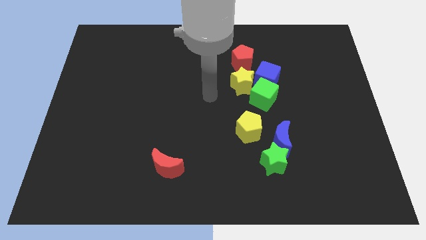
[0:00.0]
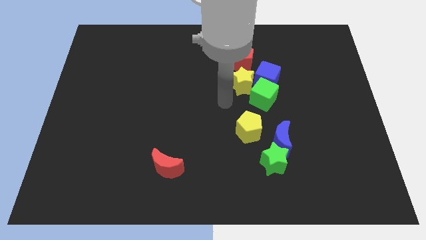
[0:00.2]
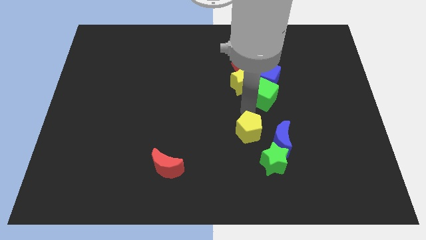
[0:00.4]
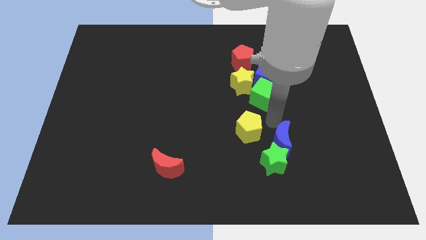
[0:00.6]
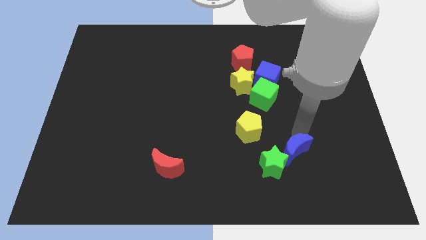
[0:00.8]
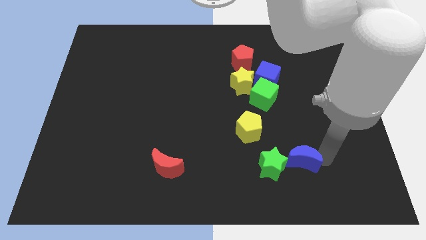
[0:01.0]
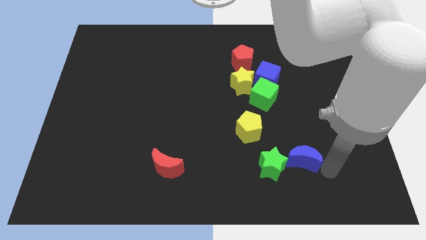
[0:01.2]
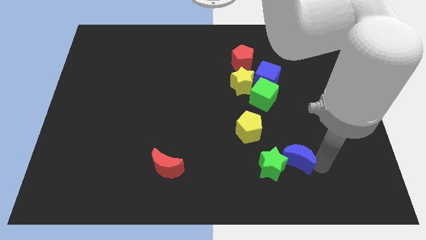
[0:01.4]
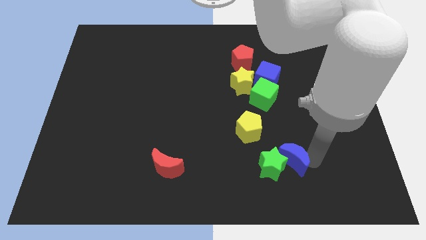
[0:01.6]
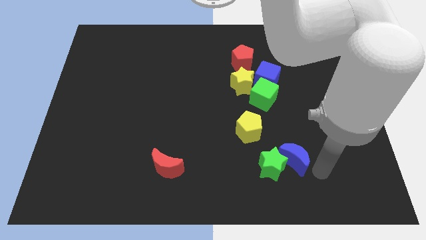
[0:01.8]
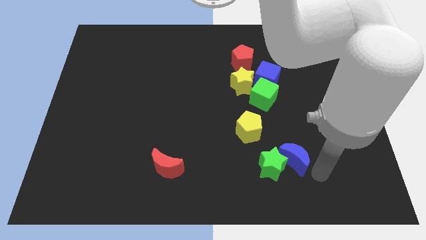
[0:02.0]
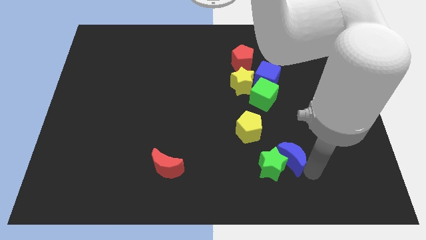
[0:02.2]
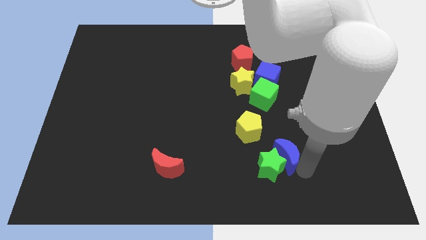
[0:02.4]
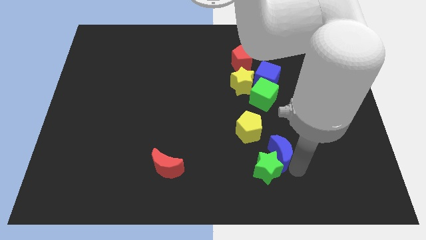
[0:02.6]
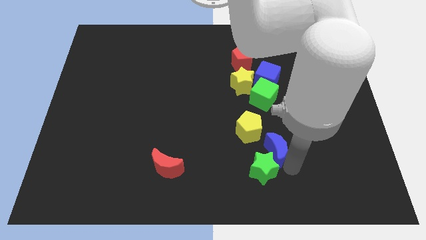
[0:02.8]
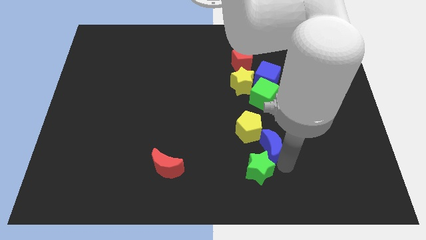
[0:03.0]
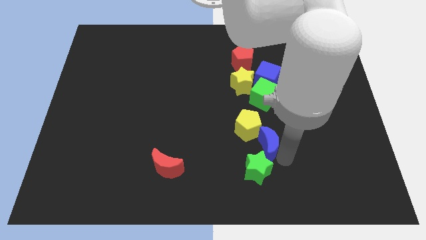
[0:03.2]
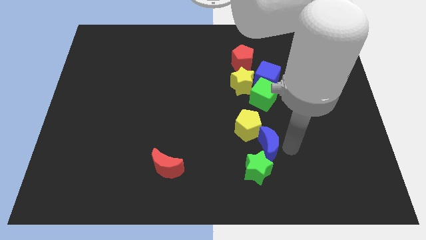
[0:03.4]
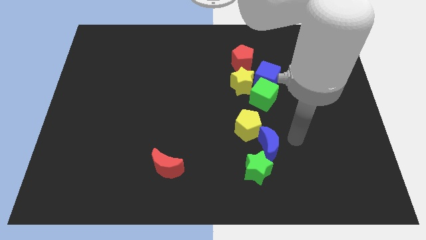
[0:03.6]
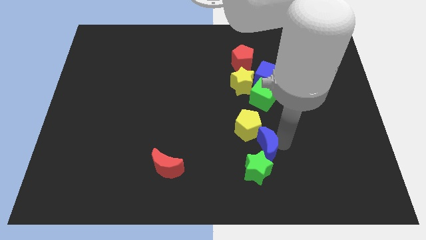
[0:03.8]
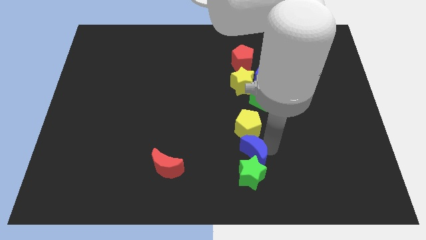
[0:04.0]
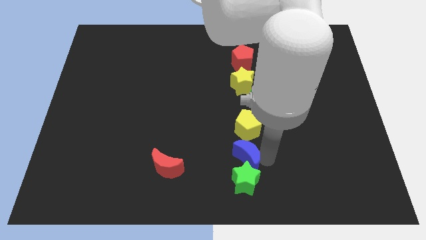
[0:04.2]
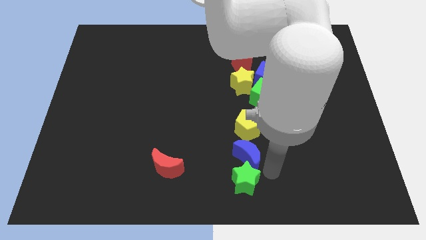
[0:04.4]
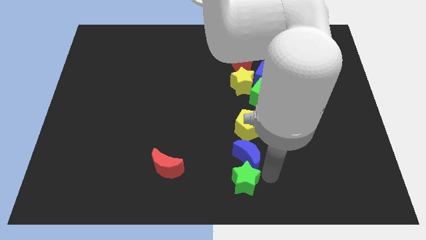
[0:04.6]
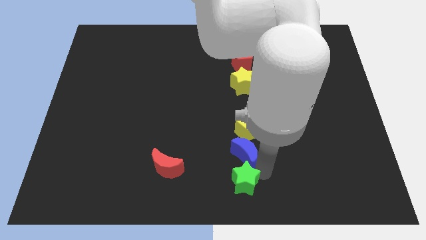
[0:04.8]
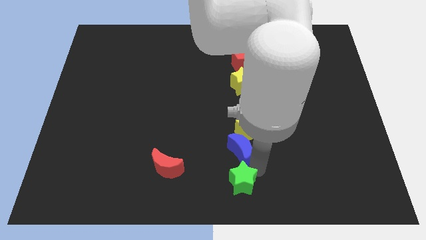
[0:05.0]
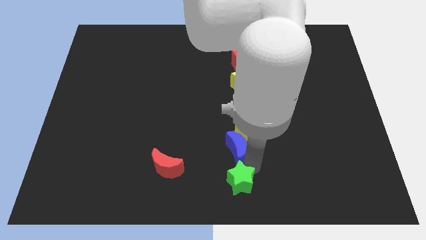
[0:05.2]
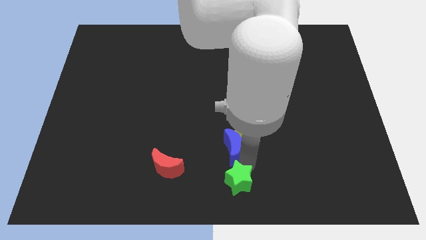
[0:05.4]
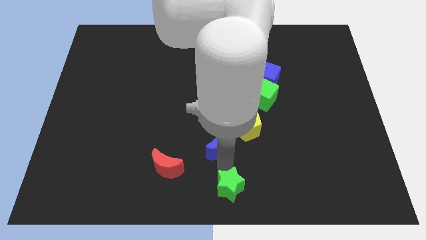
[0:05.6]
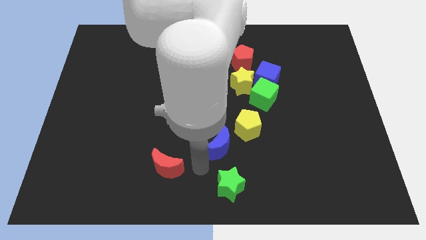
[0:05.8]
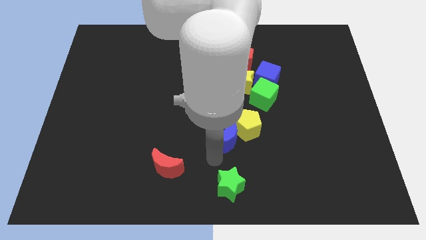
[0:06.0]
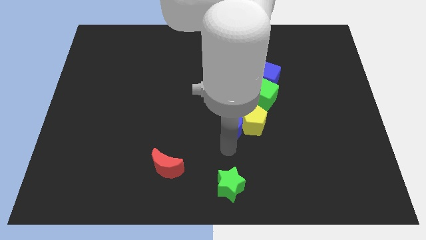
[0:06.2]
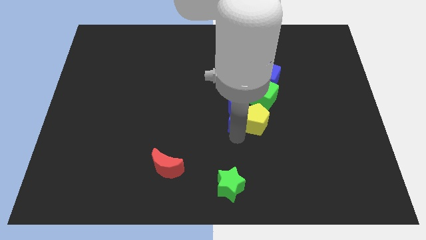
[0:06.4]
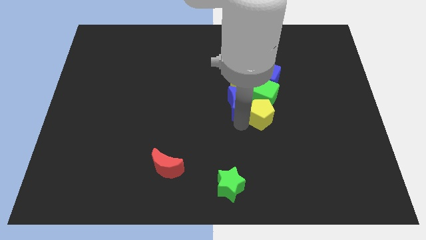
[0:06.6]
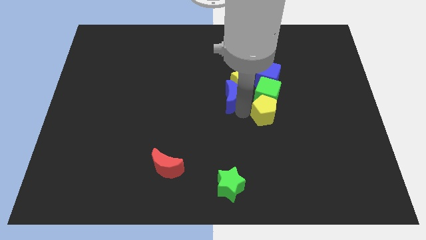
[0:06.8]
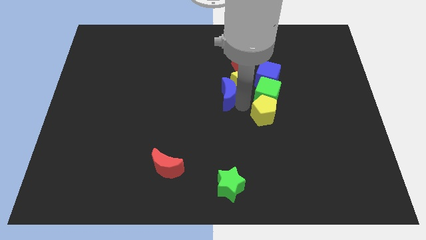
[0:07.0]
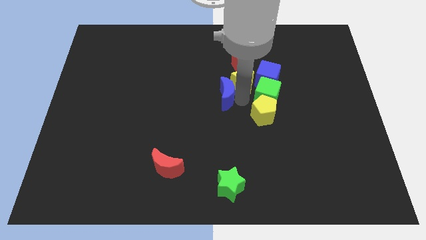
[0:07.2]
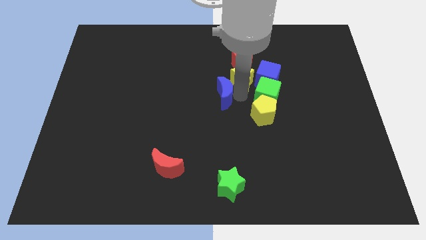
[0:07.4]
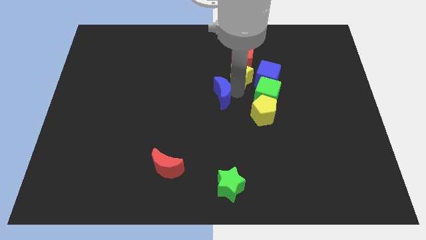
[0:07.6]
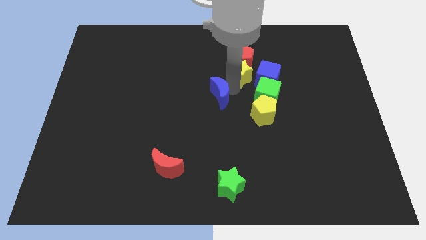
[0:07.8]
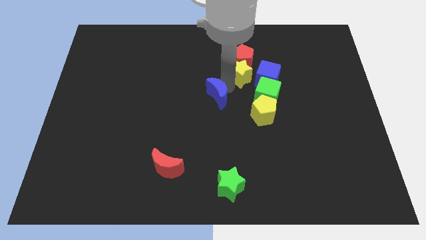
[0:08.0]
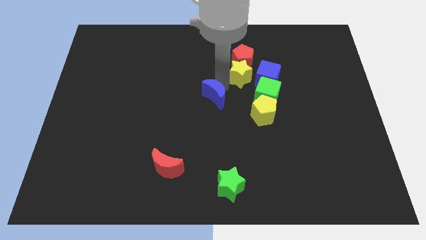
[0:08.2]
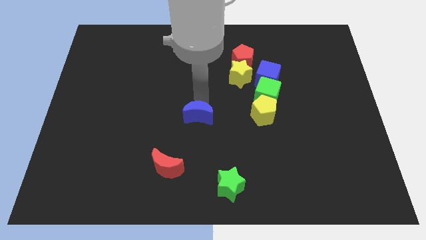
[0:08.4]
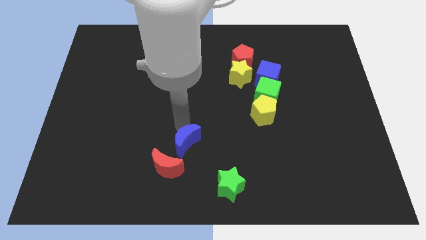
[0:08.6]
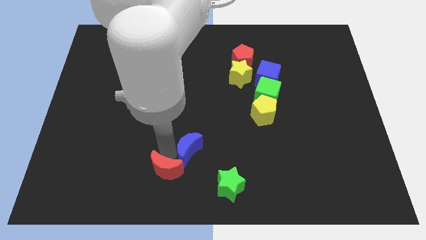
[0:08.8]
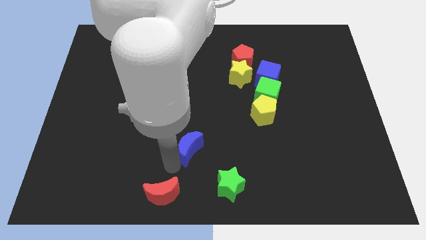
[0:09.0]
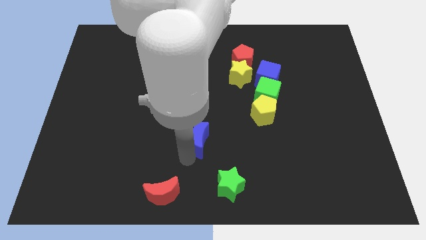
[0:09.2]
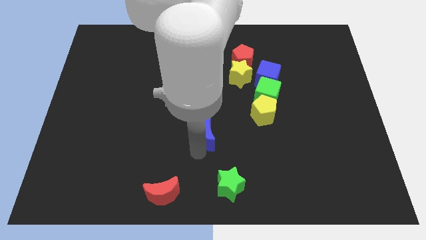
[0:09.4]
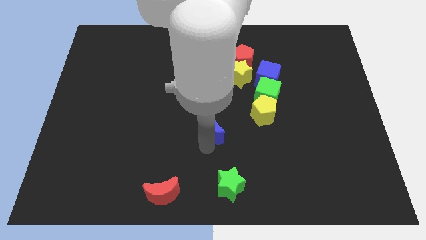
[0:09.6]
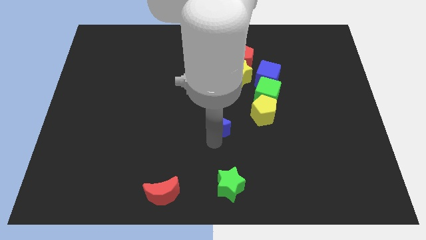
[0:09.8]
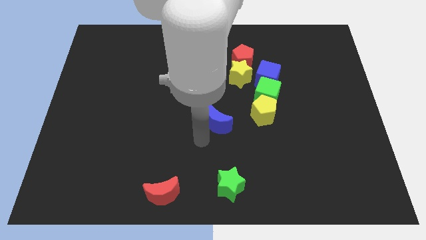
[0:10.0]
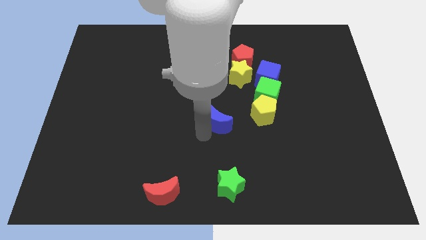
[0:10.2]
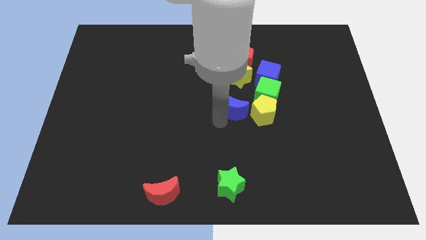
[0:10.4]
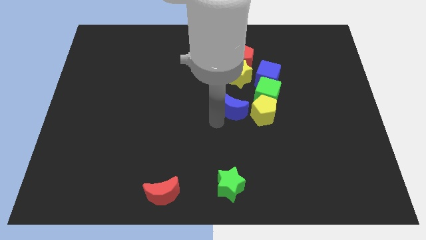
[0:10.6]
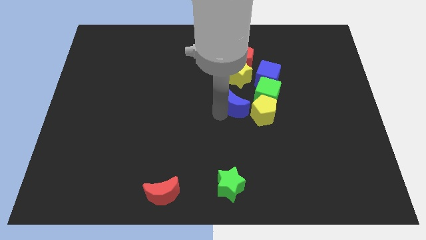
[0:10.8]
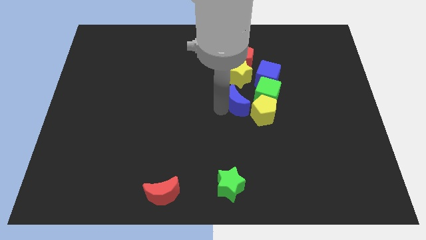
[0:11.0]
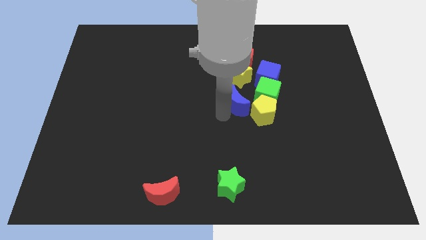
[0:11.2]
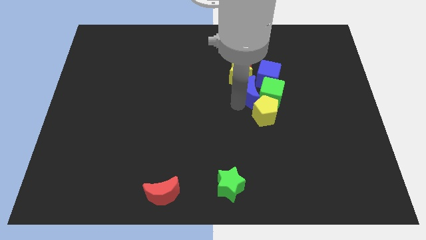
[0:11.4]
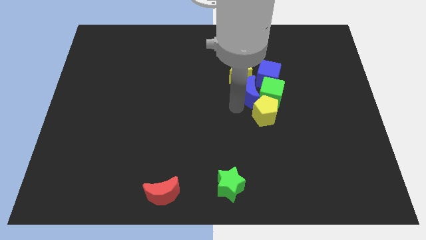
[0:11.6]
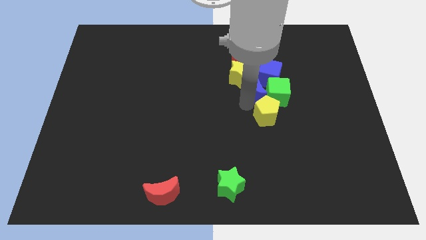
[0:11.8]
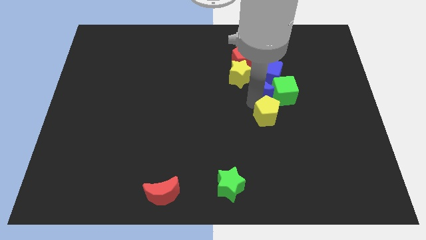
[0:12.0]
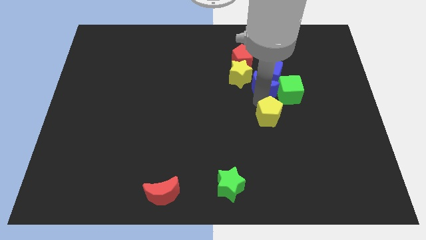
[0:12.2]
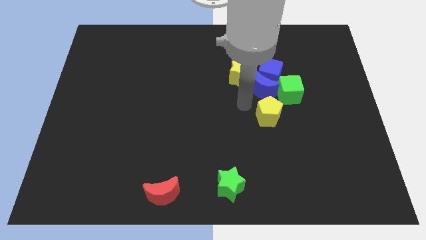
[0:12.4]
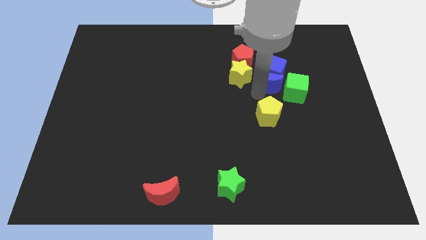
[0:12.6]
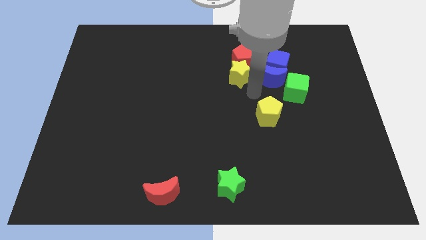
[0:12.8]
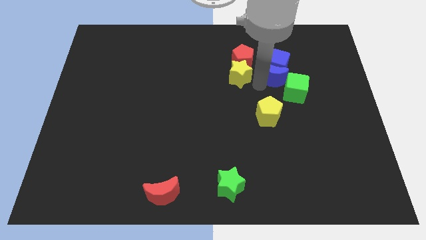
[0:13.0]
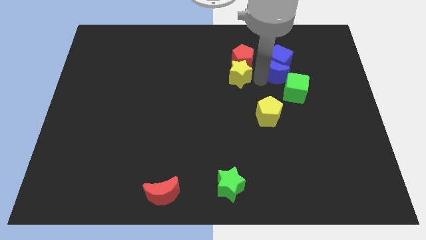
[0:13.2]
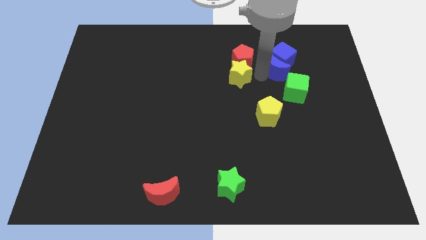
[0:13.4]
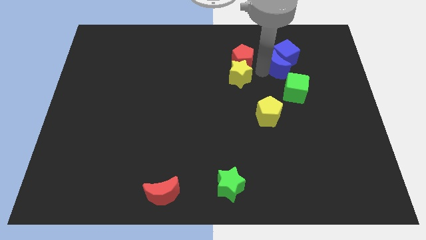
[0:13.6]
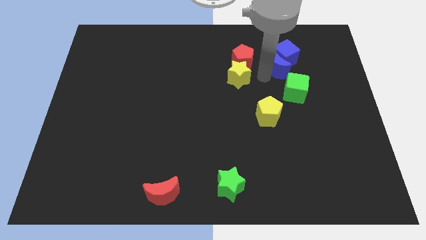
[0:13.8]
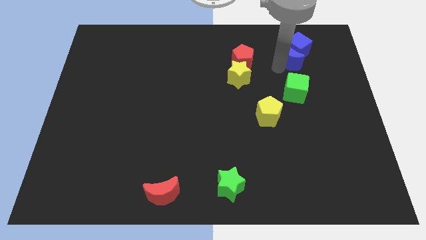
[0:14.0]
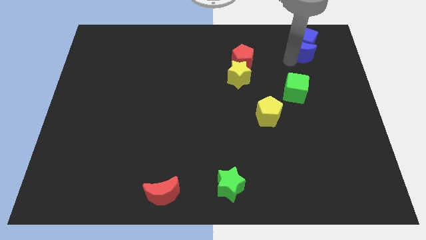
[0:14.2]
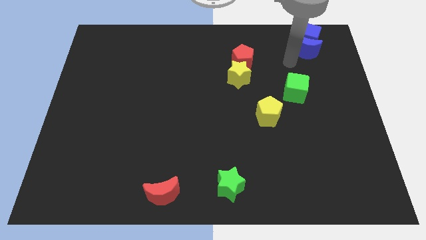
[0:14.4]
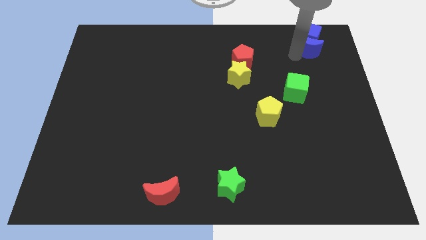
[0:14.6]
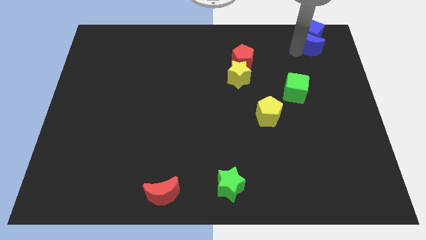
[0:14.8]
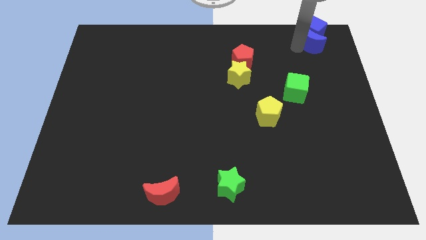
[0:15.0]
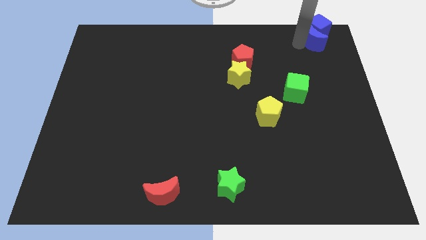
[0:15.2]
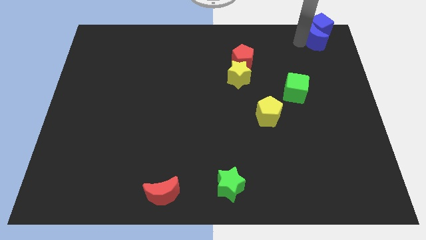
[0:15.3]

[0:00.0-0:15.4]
push the blue moon to the upper right corner
